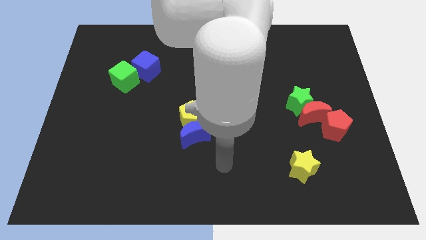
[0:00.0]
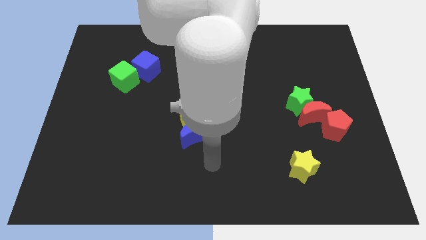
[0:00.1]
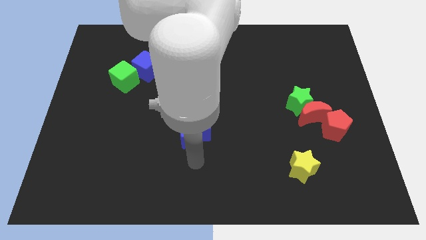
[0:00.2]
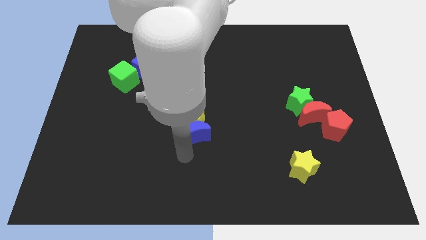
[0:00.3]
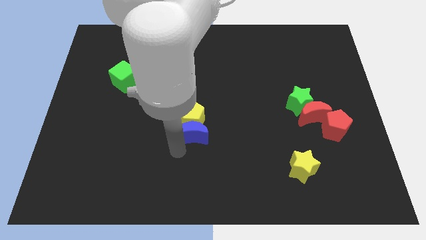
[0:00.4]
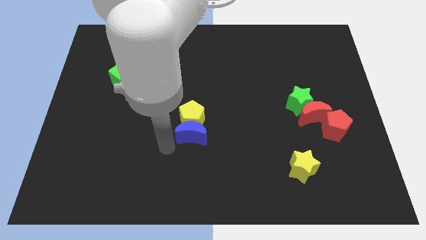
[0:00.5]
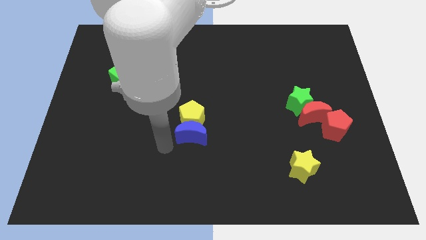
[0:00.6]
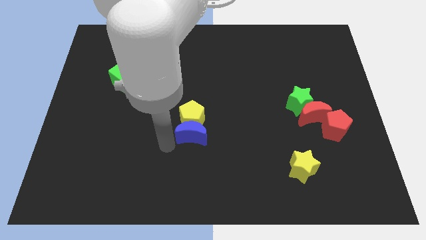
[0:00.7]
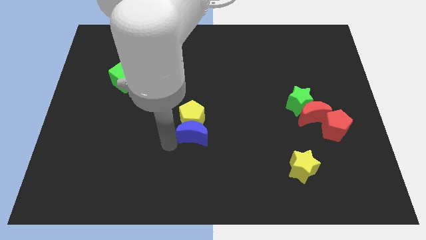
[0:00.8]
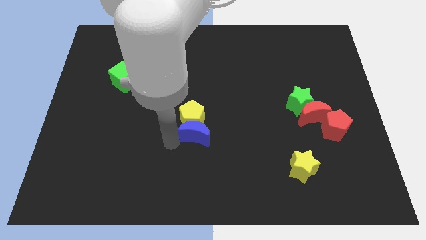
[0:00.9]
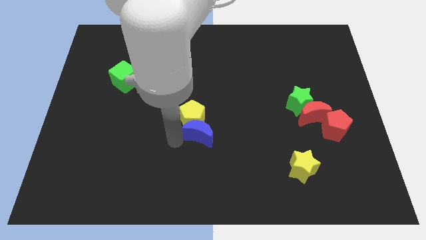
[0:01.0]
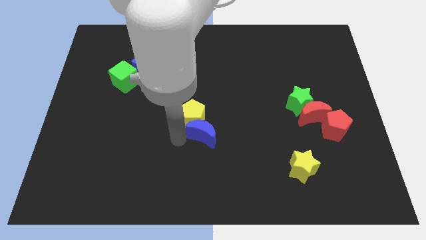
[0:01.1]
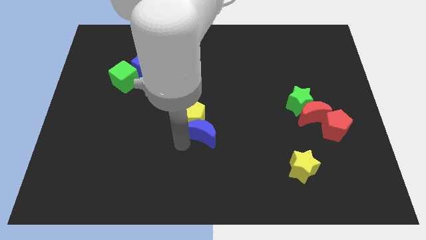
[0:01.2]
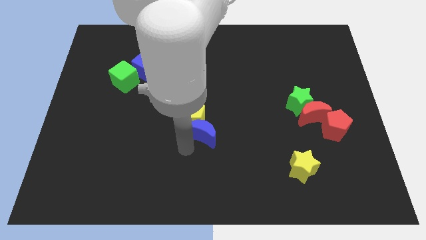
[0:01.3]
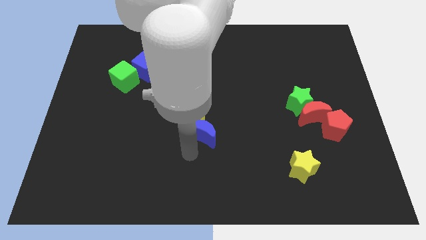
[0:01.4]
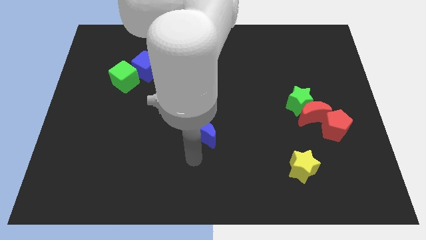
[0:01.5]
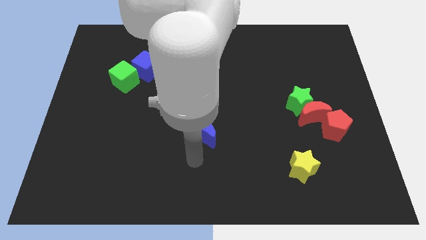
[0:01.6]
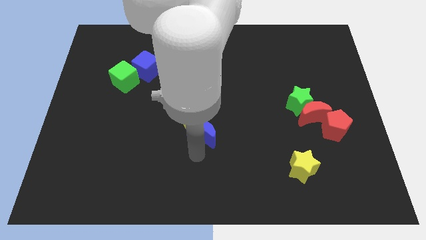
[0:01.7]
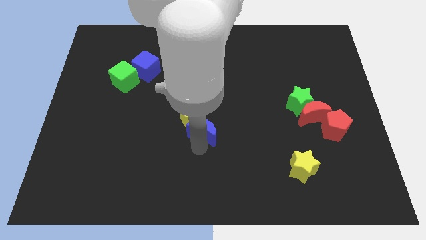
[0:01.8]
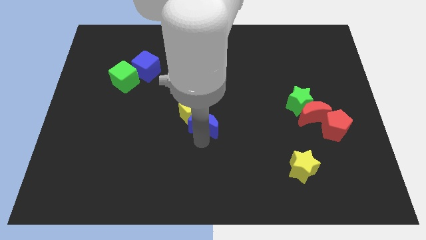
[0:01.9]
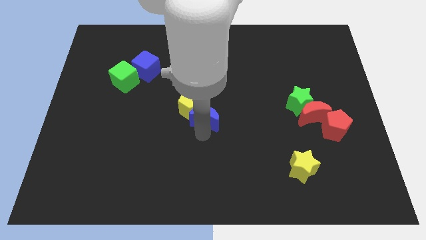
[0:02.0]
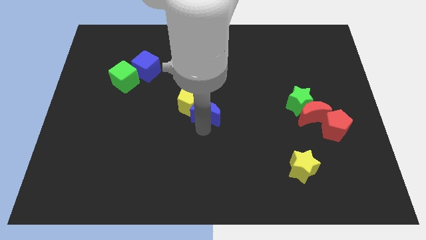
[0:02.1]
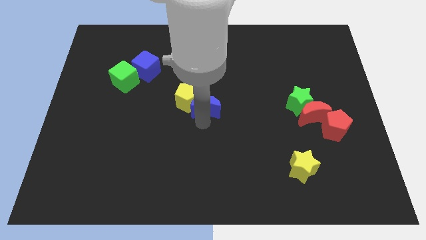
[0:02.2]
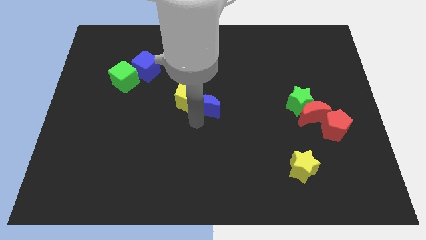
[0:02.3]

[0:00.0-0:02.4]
push the blue moon a little bit up and to the right diagonally

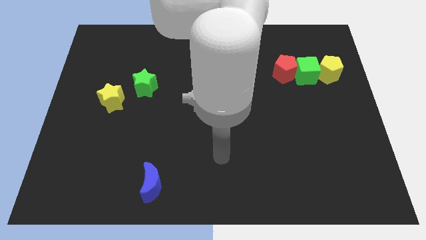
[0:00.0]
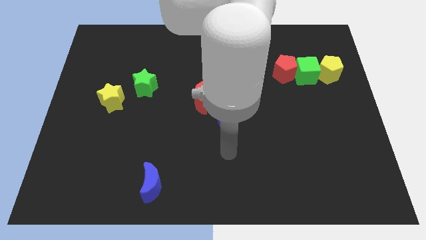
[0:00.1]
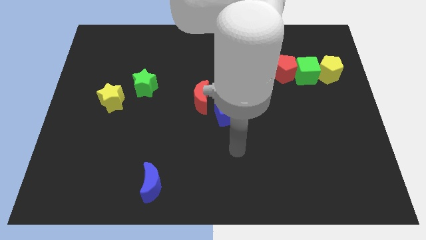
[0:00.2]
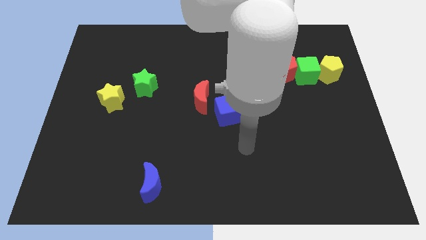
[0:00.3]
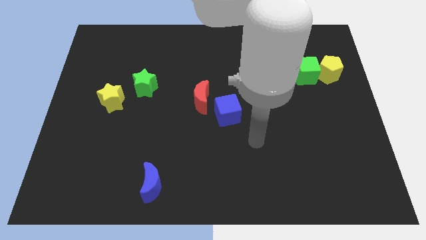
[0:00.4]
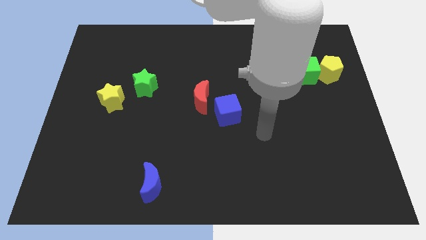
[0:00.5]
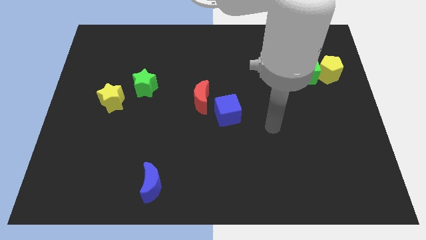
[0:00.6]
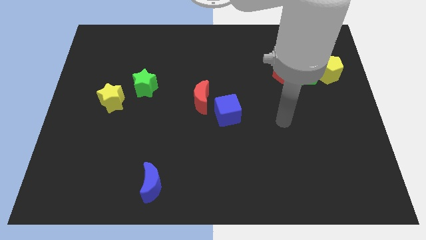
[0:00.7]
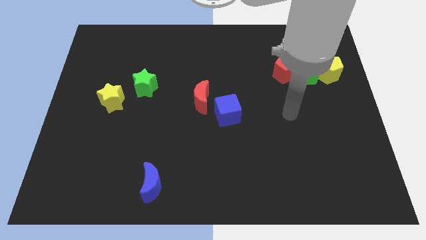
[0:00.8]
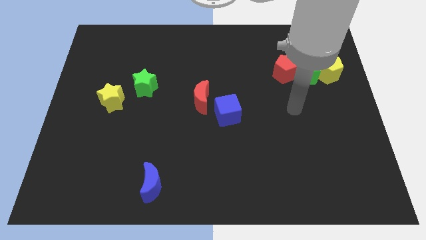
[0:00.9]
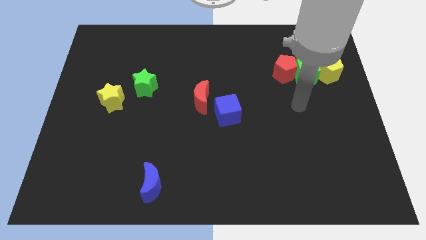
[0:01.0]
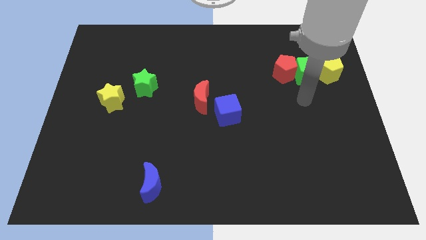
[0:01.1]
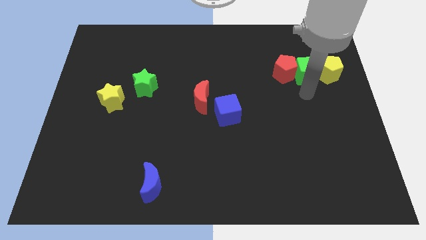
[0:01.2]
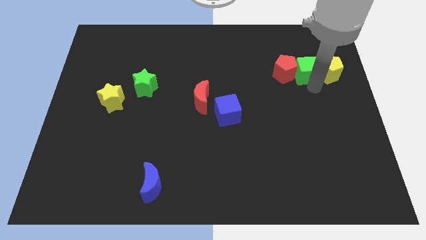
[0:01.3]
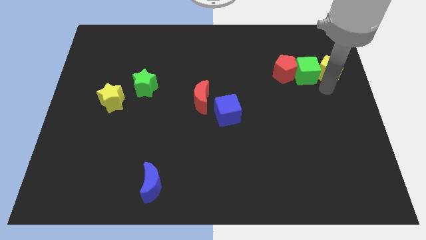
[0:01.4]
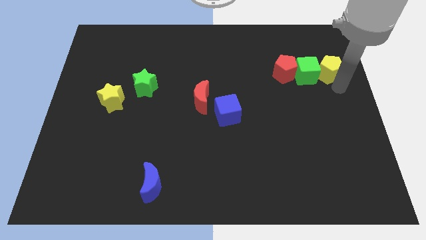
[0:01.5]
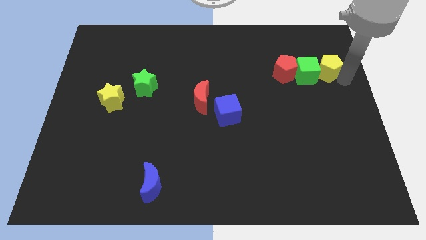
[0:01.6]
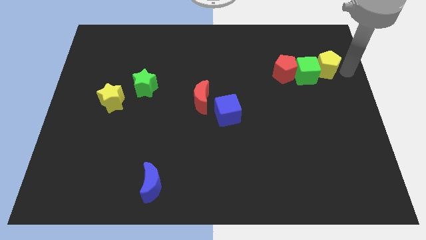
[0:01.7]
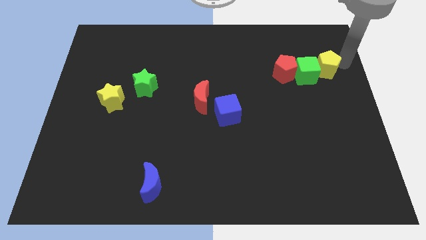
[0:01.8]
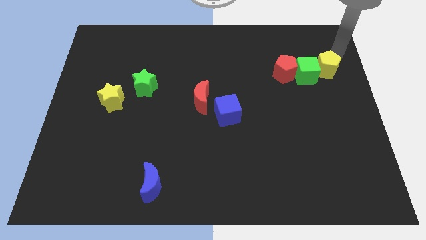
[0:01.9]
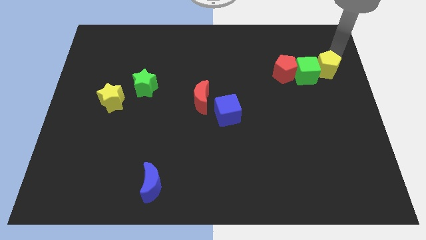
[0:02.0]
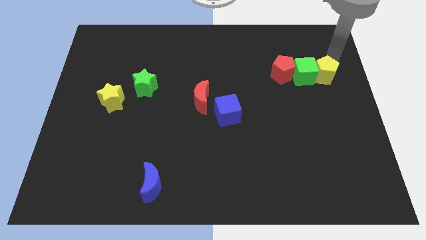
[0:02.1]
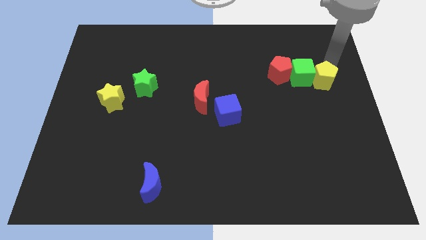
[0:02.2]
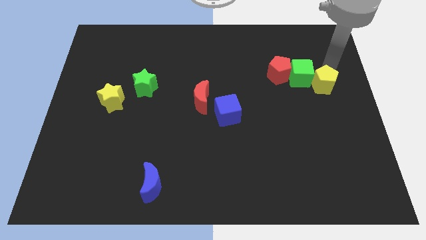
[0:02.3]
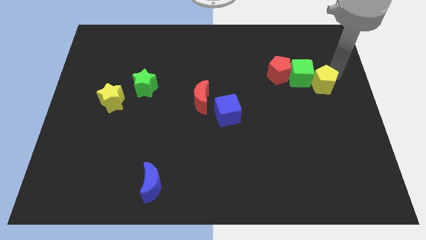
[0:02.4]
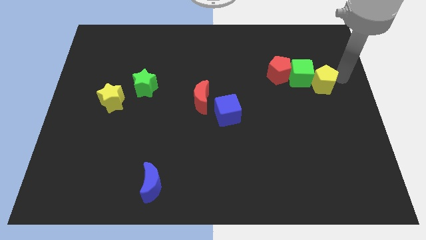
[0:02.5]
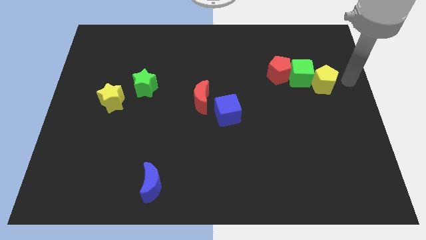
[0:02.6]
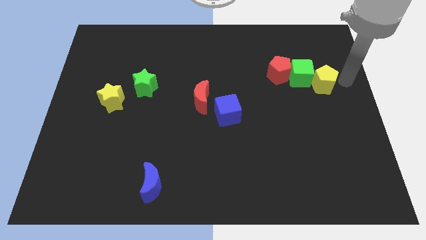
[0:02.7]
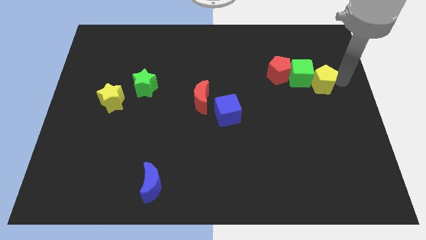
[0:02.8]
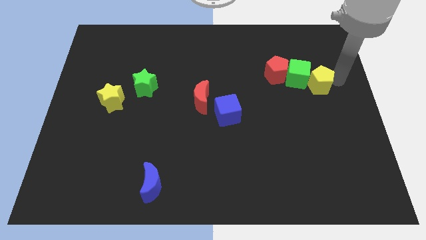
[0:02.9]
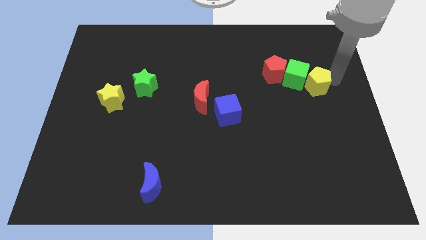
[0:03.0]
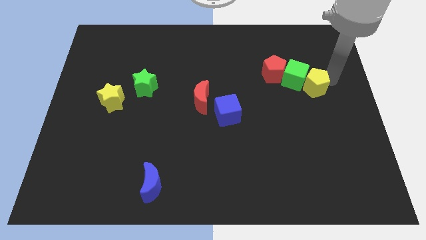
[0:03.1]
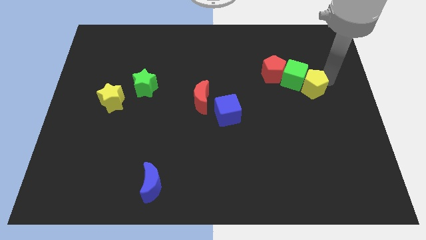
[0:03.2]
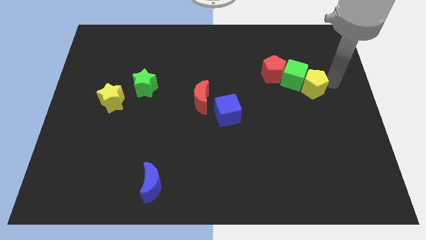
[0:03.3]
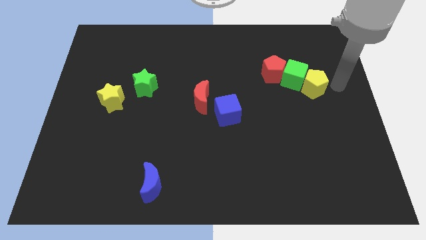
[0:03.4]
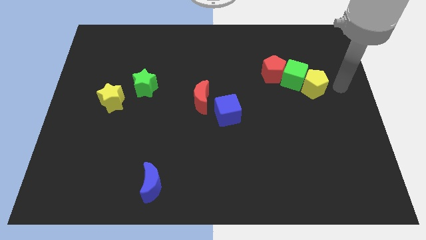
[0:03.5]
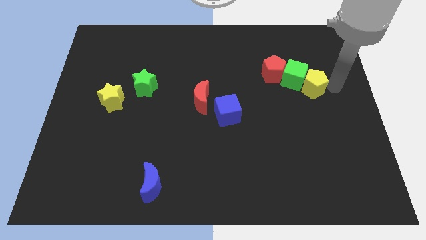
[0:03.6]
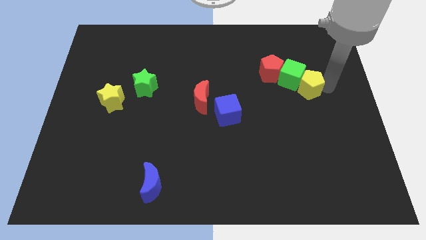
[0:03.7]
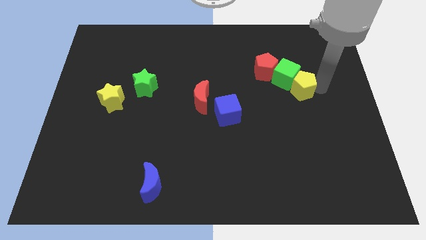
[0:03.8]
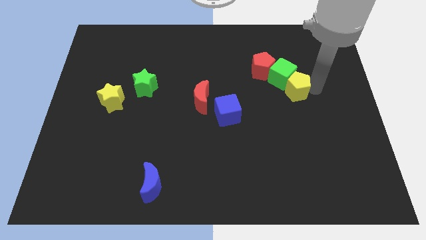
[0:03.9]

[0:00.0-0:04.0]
move the yellow pentagon to the left somewhat

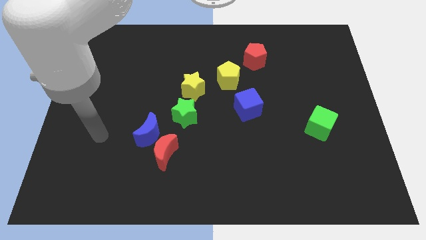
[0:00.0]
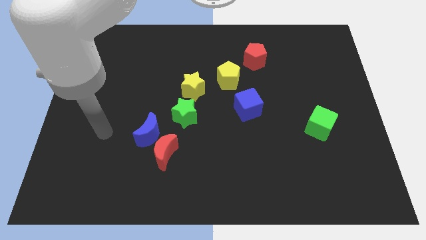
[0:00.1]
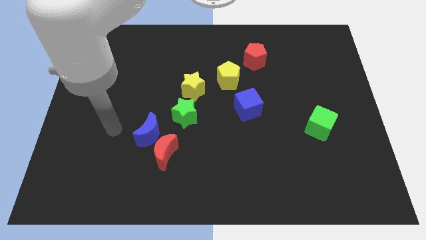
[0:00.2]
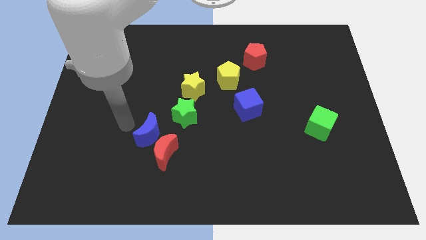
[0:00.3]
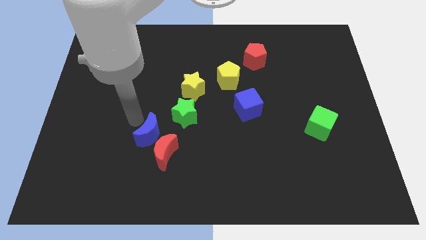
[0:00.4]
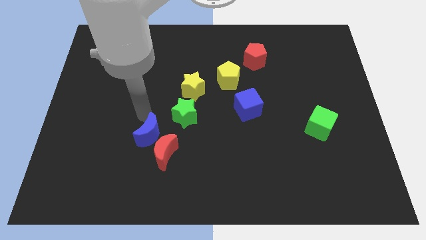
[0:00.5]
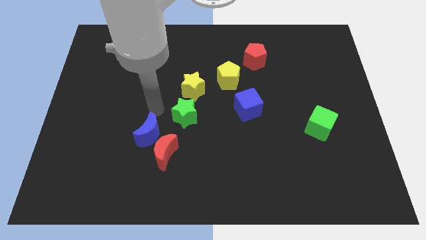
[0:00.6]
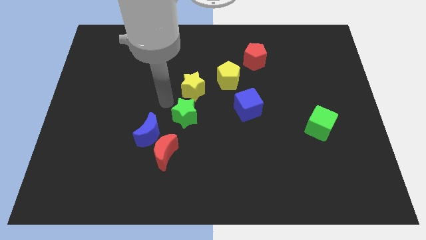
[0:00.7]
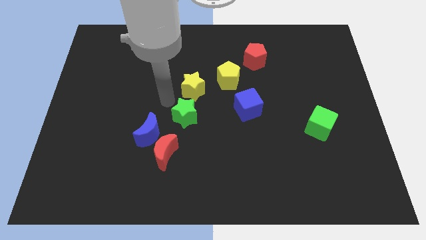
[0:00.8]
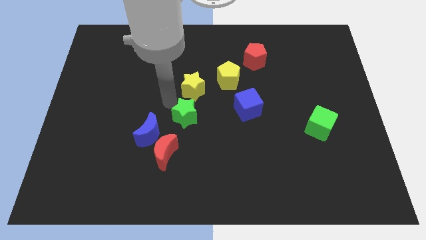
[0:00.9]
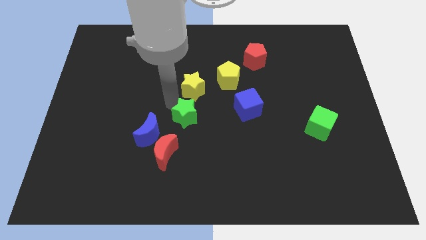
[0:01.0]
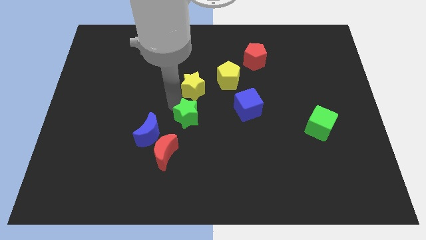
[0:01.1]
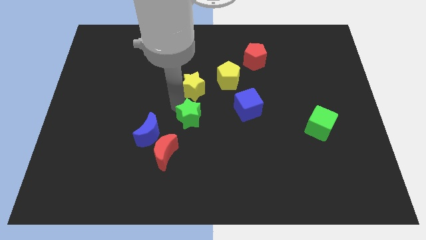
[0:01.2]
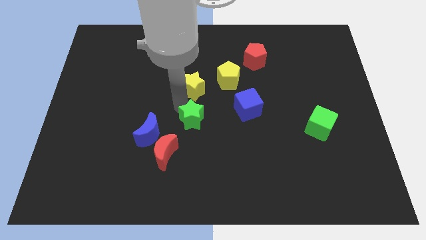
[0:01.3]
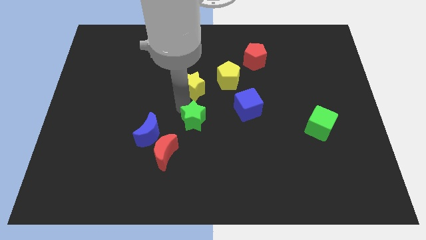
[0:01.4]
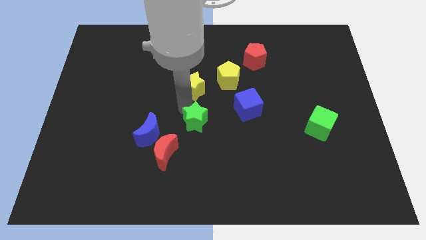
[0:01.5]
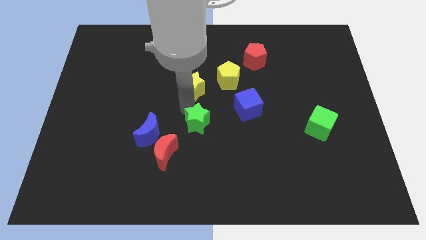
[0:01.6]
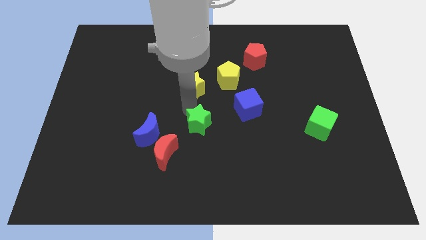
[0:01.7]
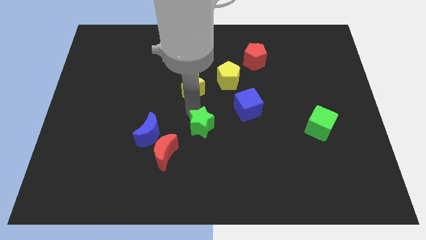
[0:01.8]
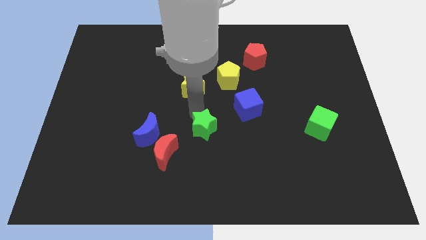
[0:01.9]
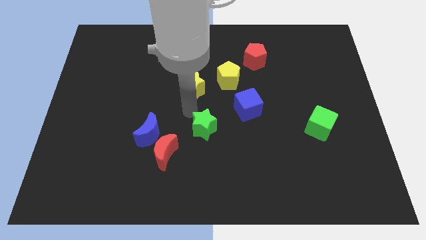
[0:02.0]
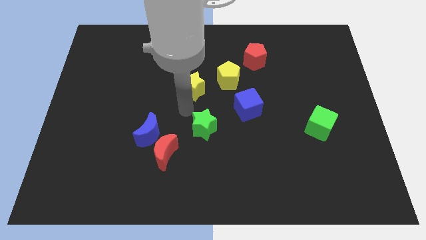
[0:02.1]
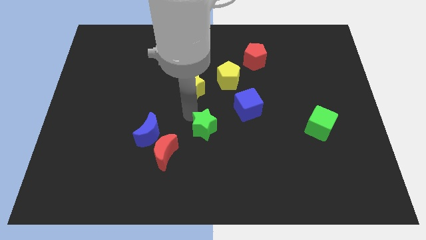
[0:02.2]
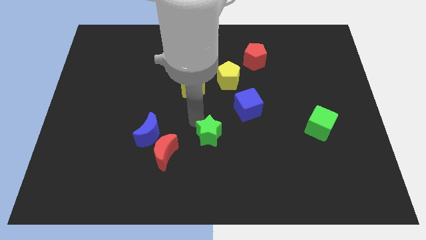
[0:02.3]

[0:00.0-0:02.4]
slide the green star diagonally downwards and to the right somewhat
